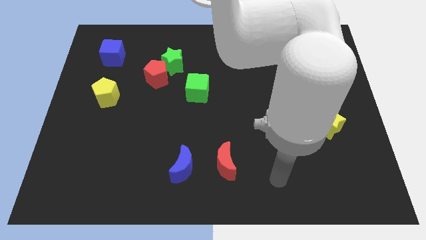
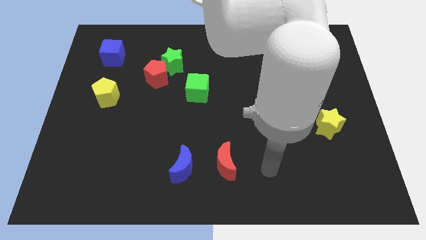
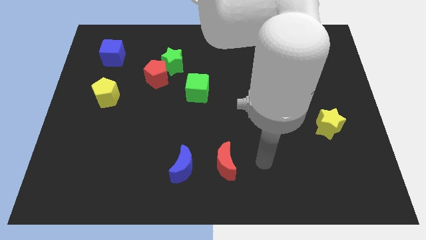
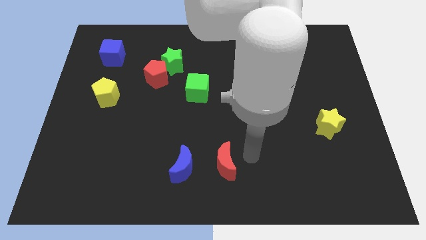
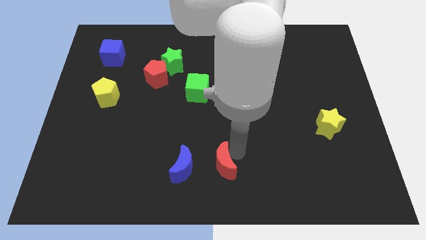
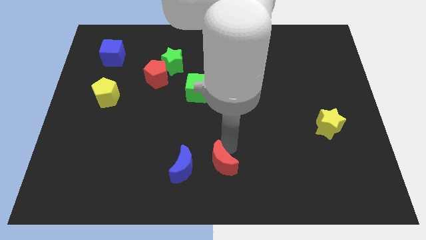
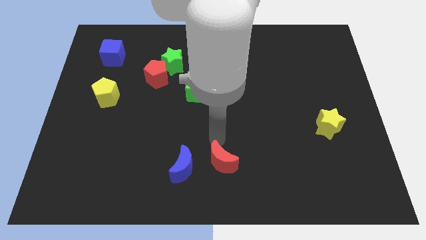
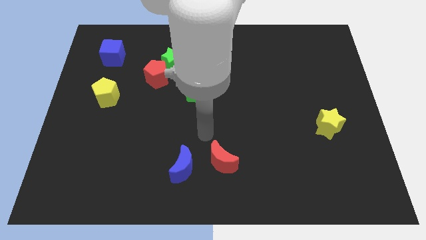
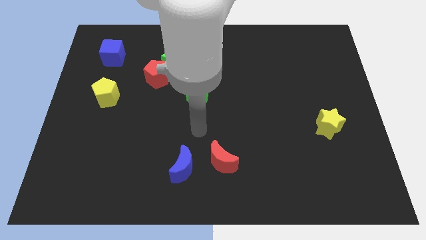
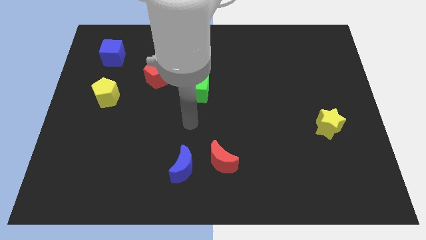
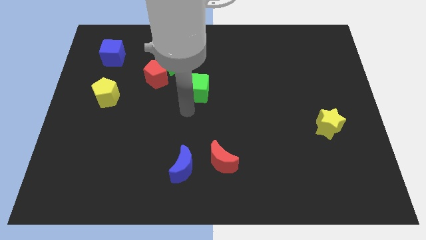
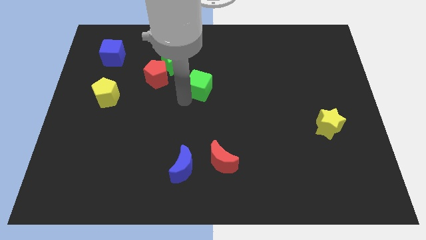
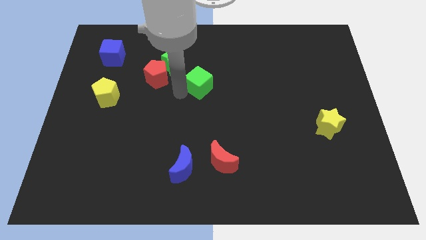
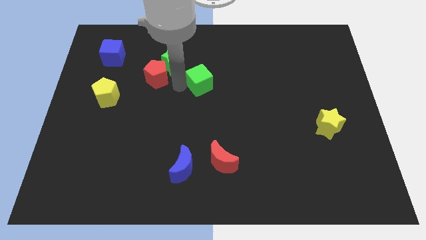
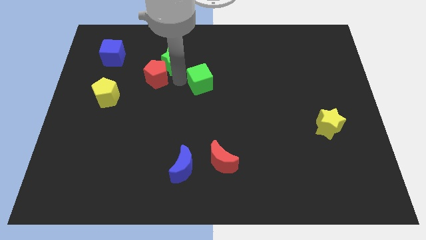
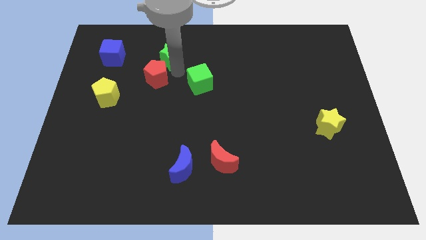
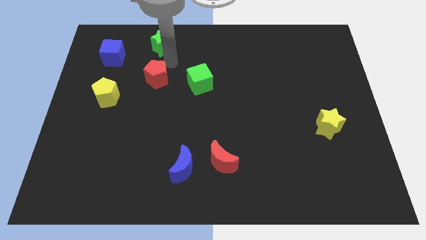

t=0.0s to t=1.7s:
separate the red pentagon from the green star

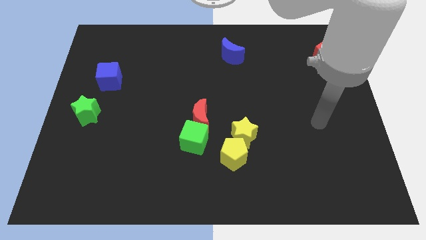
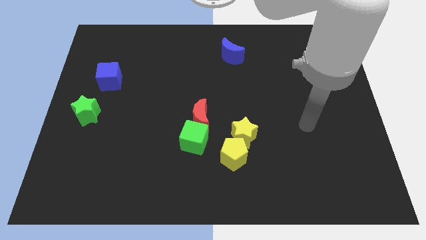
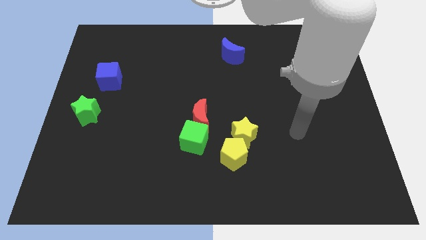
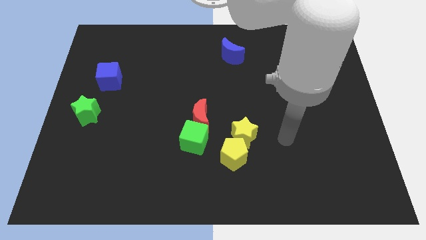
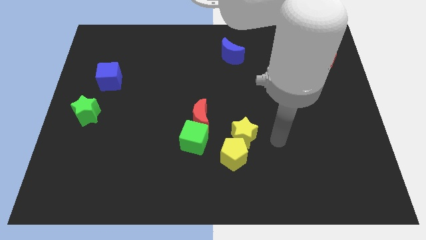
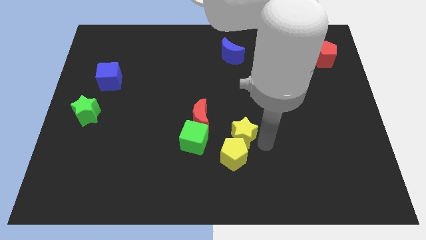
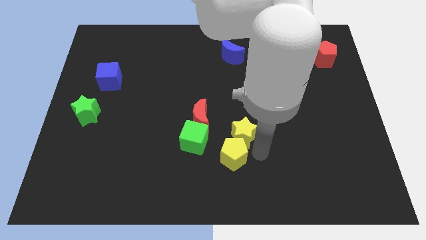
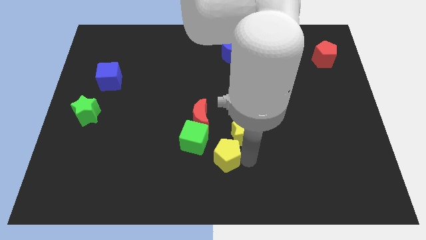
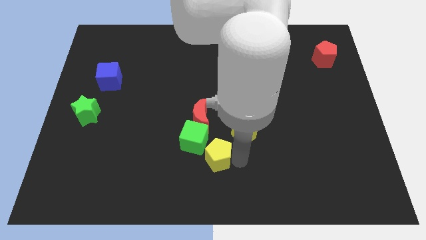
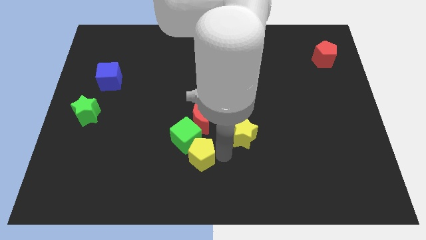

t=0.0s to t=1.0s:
separate the yellow star from the yellow pentagon

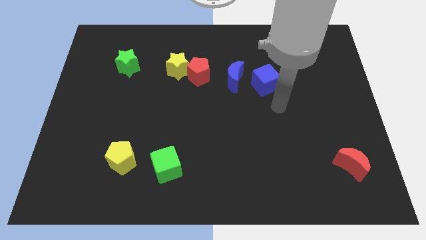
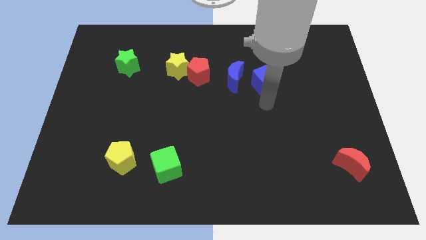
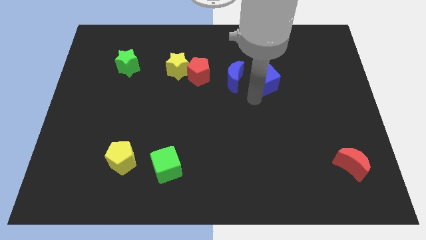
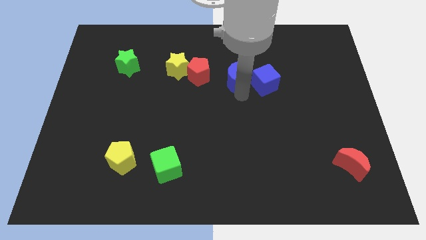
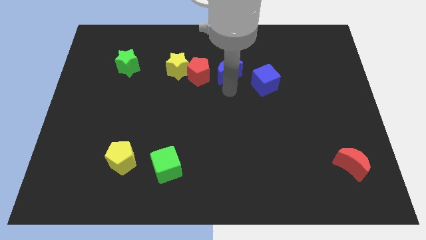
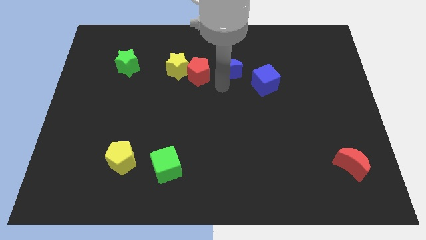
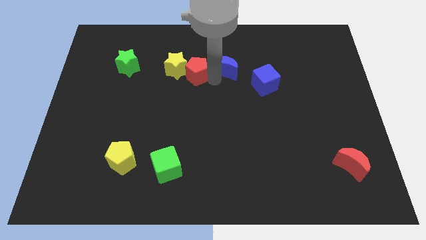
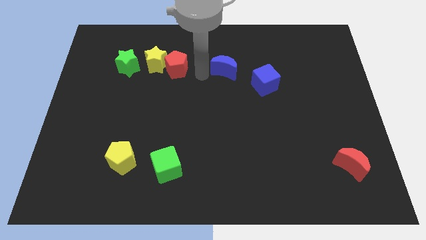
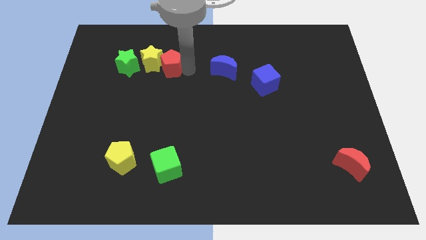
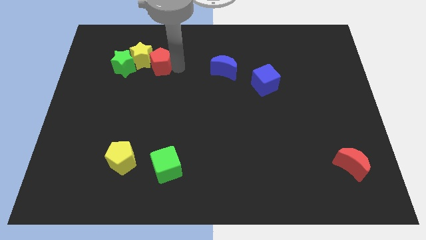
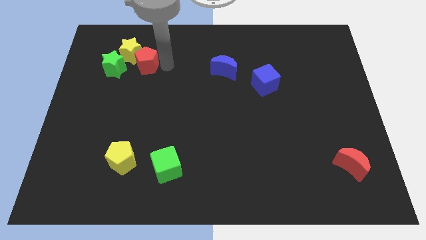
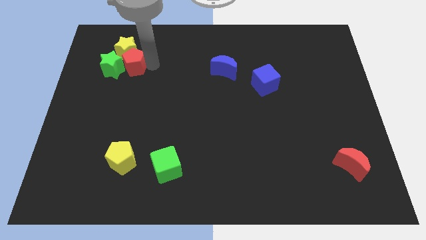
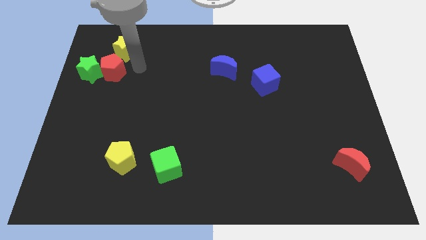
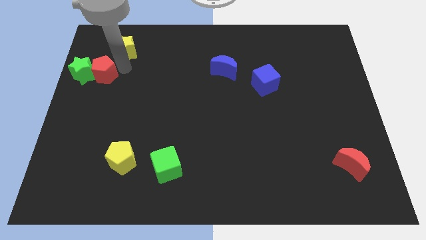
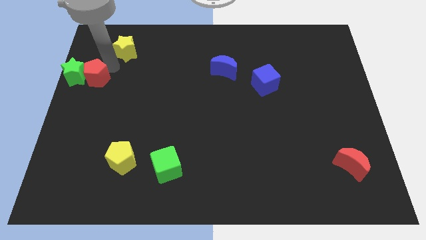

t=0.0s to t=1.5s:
pull the yellow star apart from the red pentagon

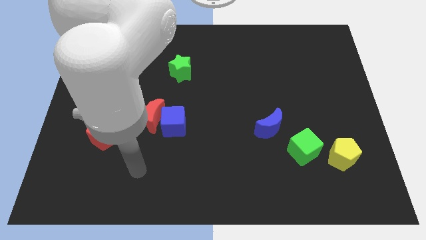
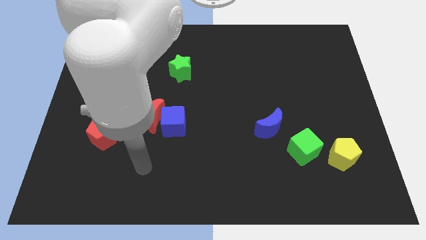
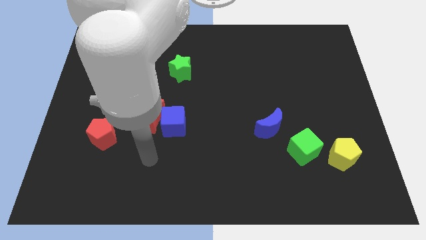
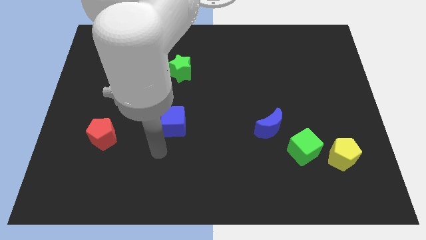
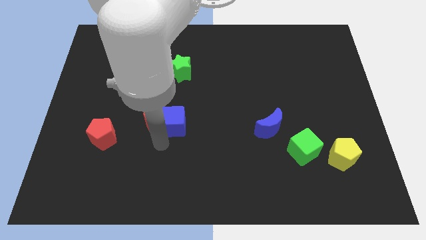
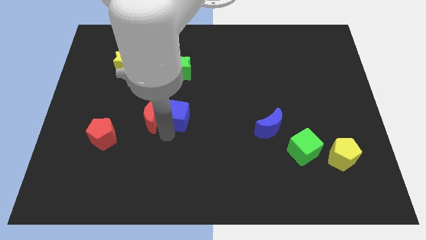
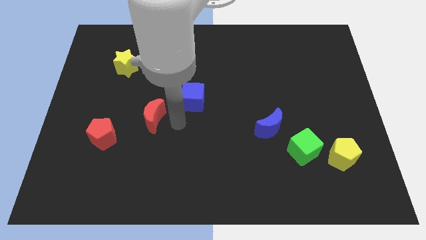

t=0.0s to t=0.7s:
separate the red moon from the blue cube

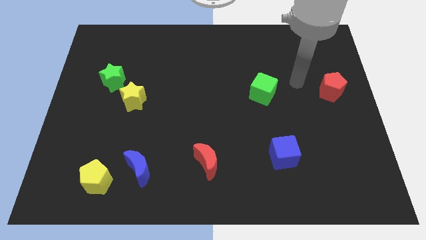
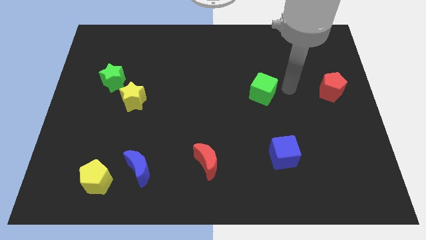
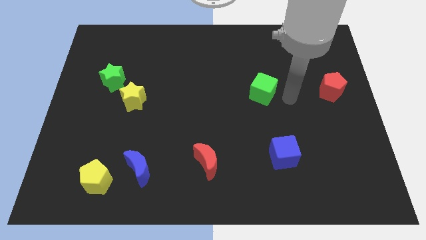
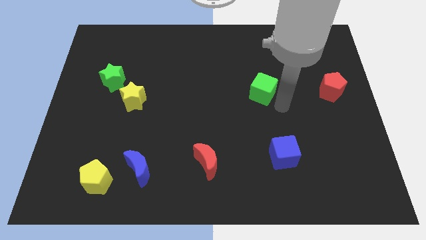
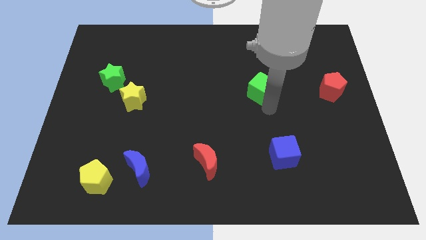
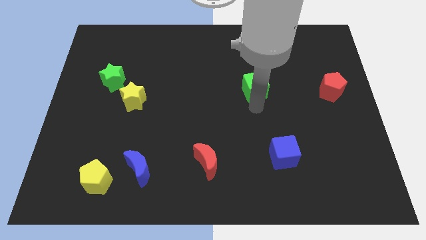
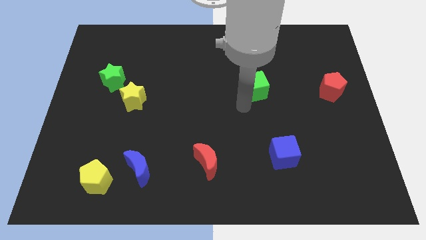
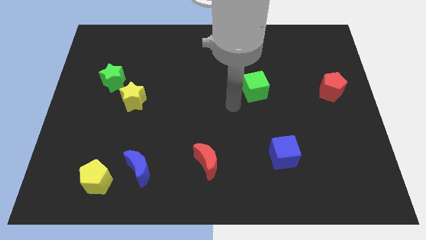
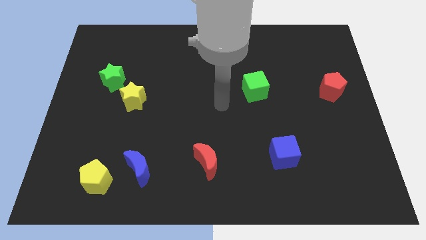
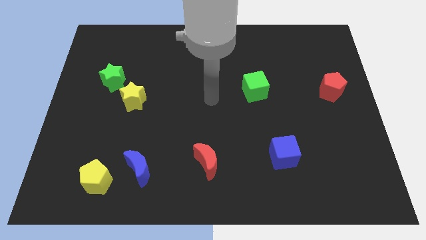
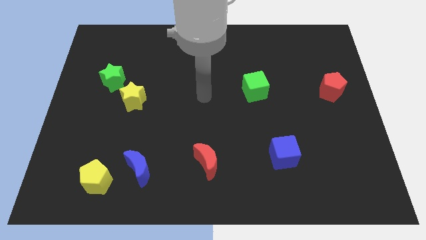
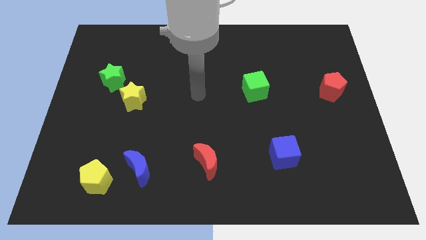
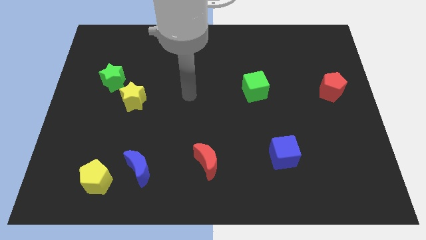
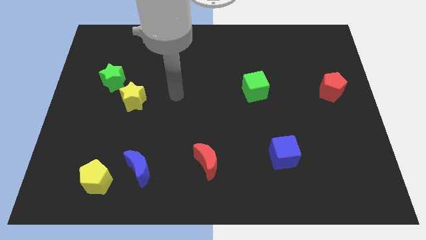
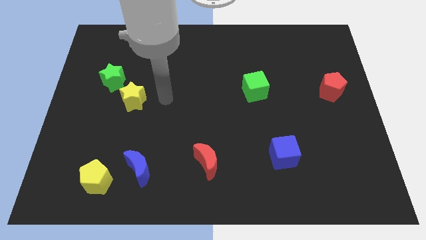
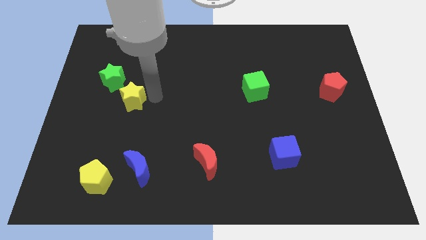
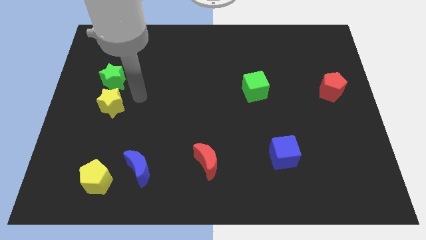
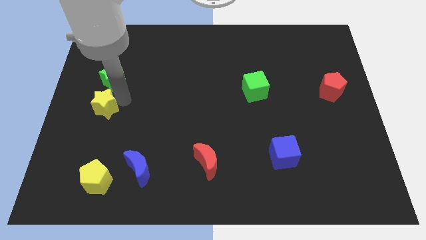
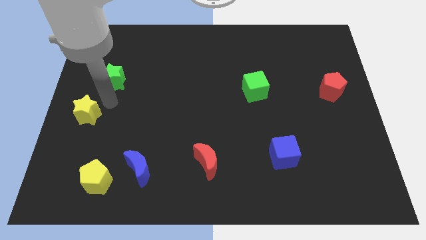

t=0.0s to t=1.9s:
separate the green star from the yellow star

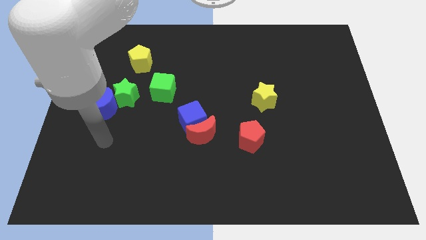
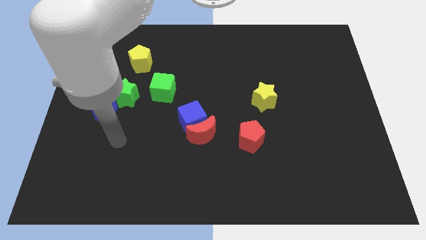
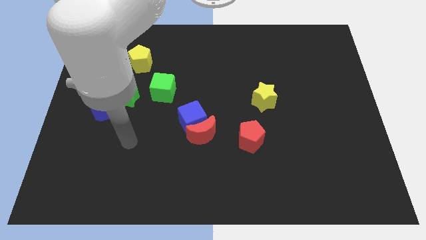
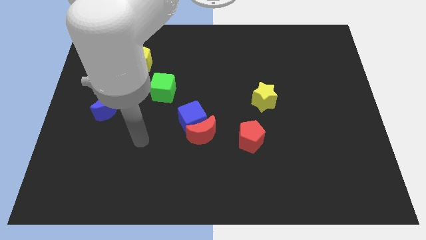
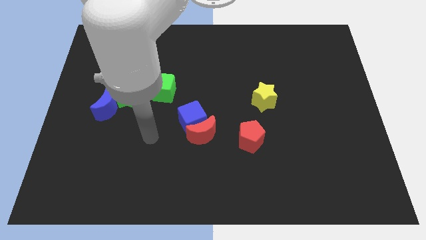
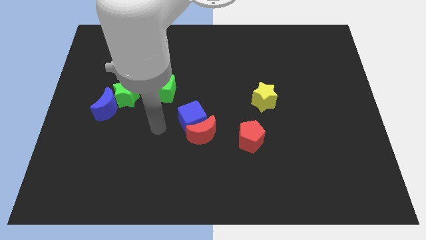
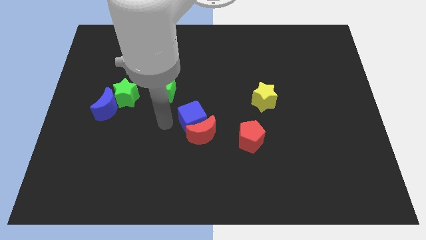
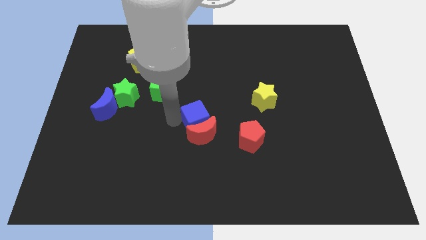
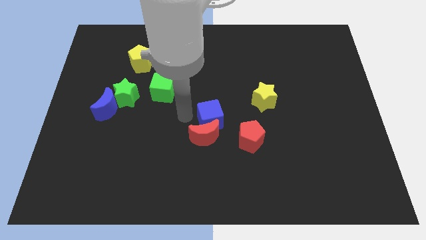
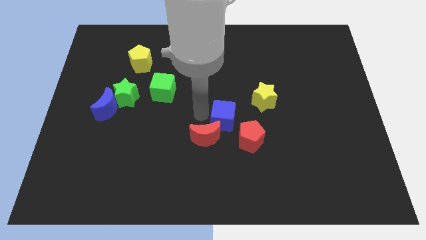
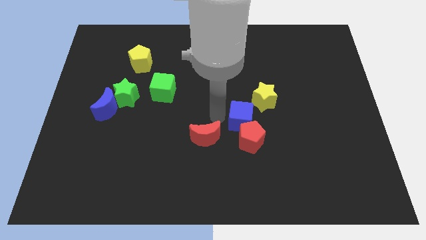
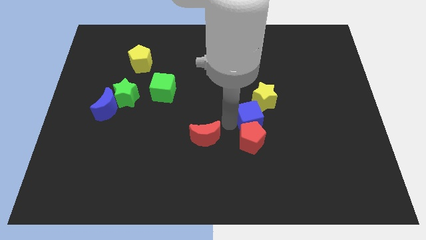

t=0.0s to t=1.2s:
pull the red moon apart from the blue cube

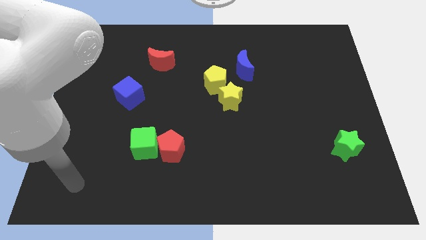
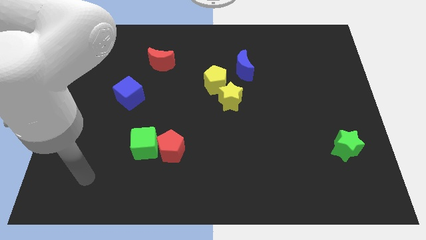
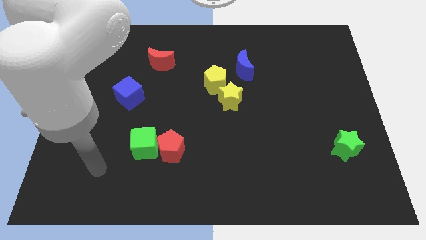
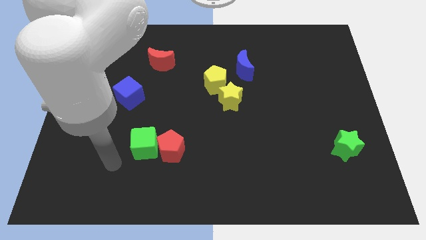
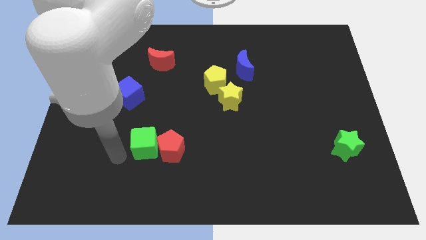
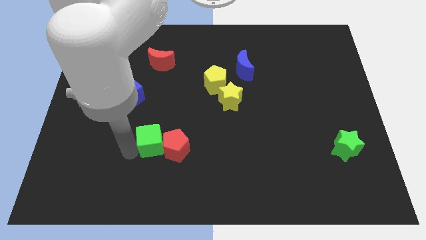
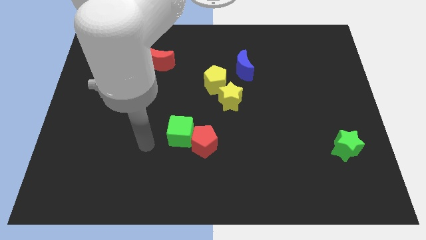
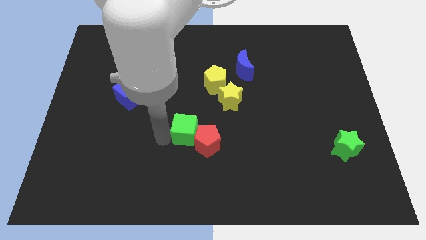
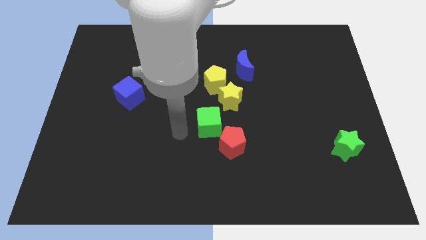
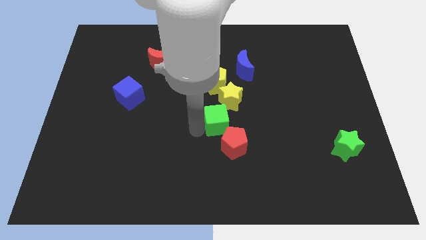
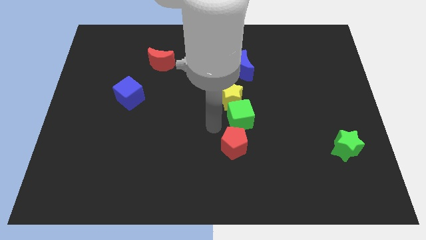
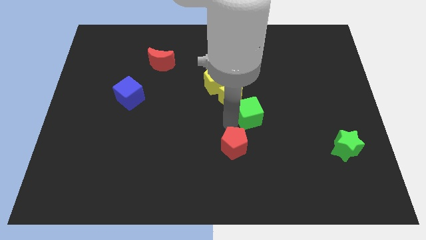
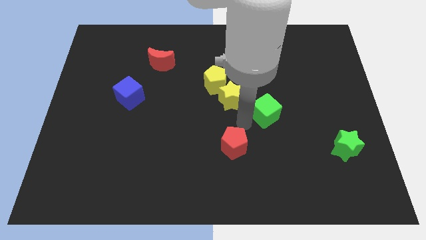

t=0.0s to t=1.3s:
pull the red pentagon apart from the green cube

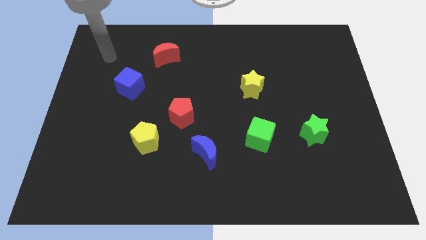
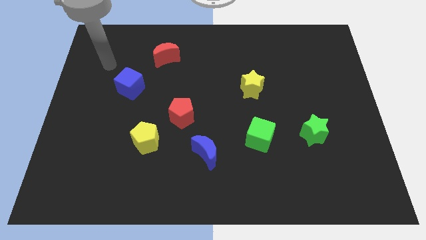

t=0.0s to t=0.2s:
separate the red pentagon from the yellow pentagon

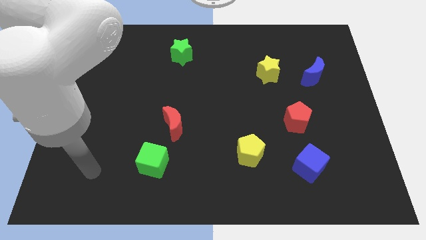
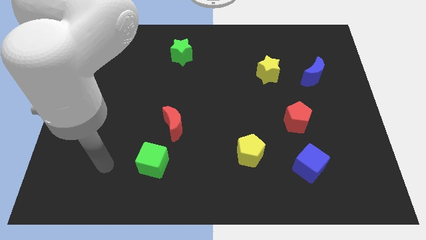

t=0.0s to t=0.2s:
separate the red moon from the green cube
